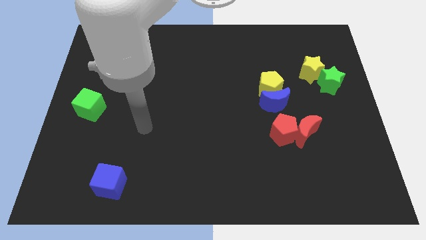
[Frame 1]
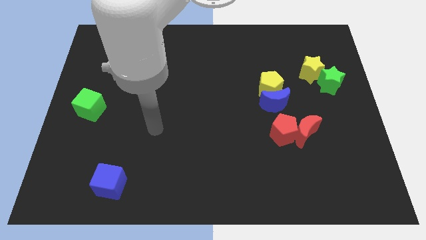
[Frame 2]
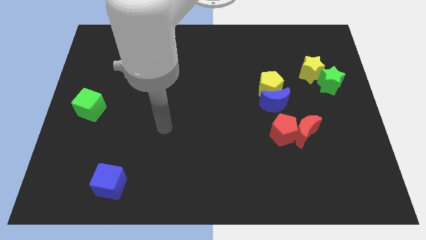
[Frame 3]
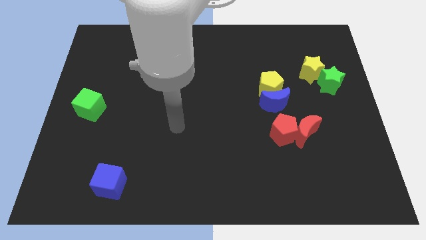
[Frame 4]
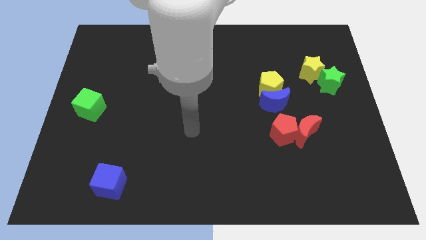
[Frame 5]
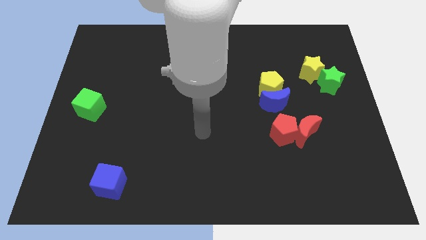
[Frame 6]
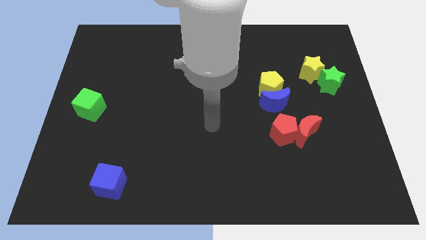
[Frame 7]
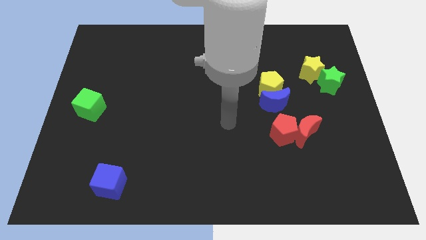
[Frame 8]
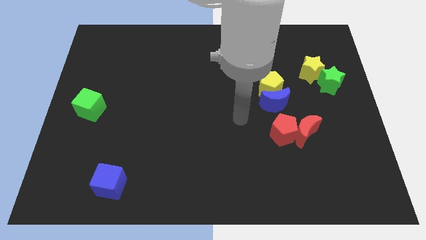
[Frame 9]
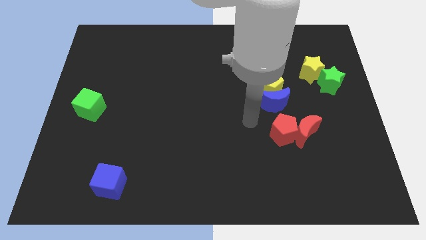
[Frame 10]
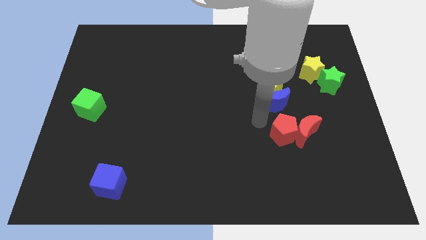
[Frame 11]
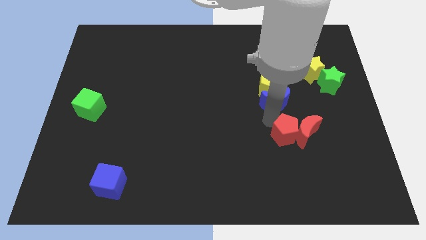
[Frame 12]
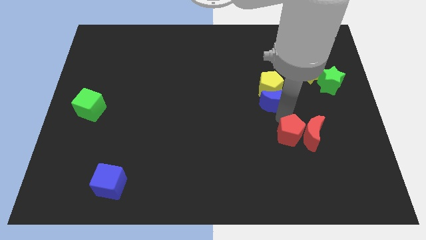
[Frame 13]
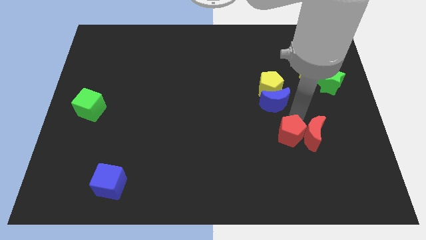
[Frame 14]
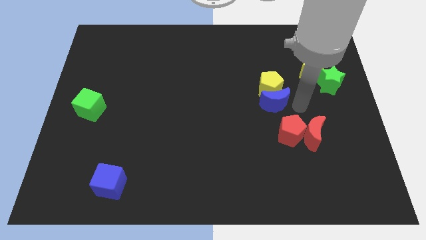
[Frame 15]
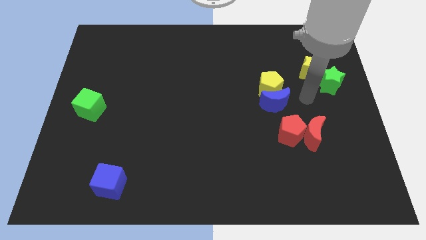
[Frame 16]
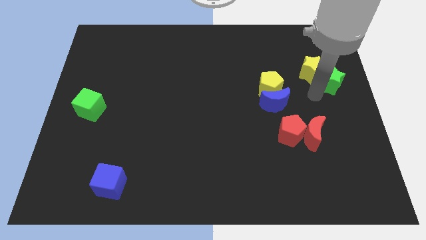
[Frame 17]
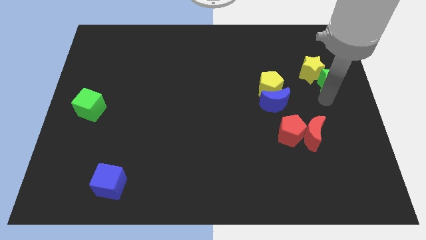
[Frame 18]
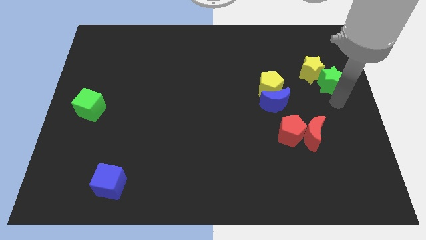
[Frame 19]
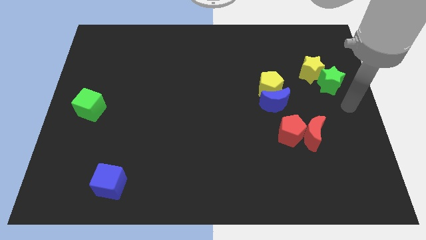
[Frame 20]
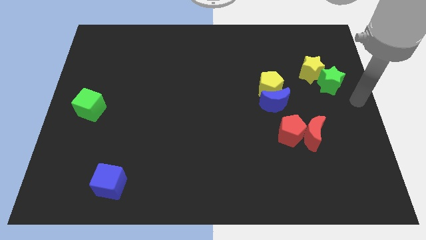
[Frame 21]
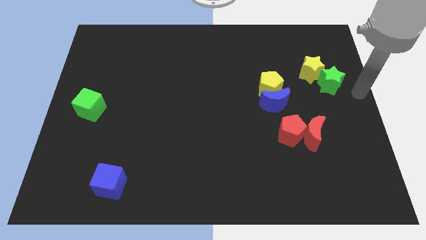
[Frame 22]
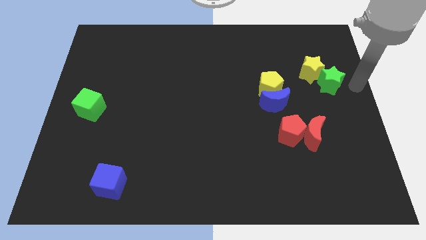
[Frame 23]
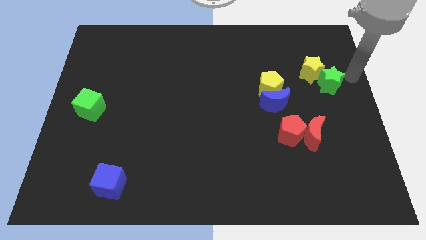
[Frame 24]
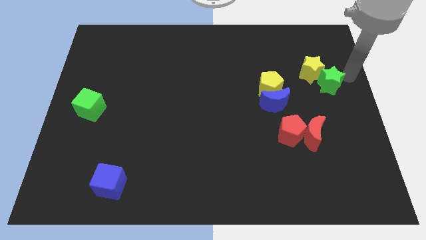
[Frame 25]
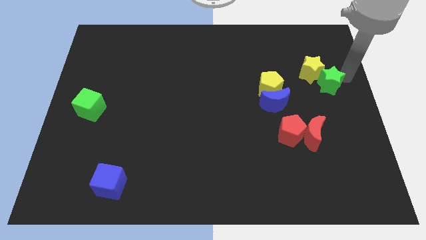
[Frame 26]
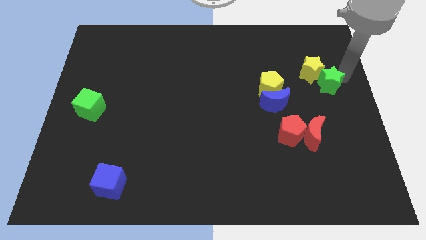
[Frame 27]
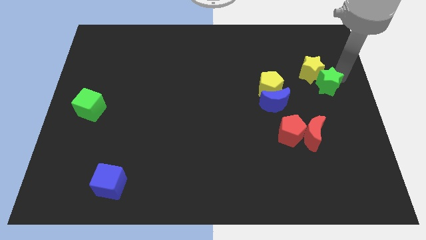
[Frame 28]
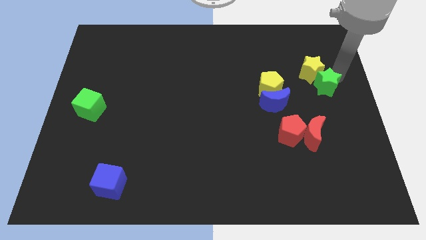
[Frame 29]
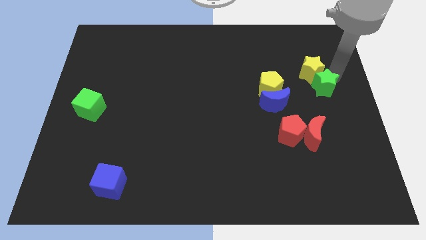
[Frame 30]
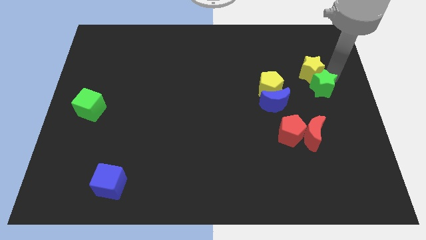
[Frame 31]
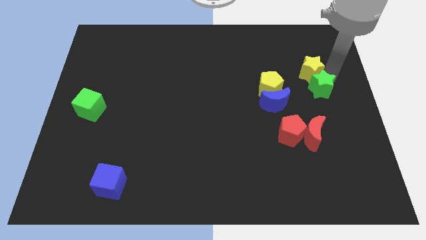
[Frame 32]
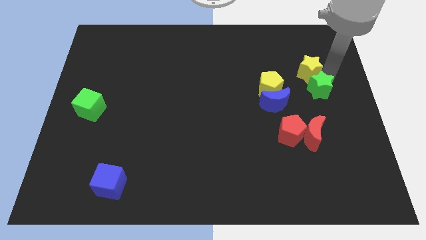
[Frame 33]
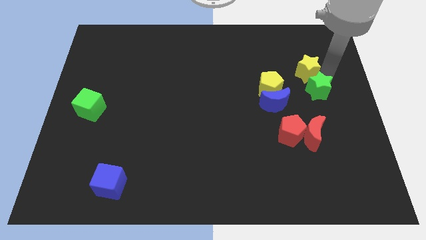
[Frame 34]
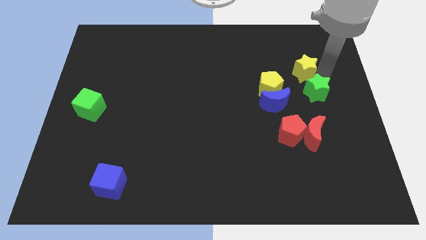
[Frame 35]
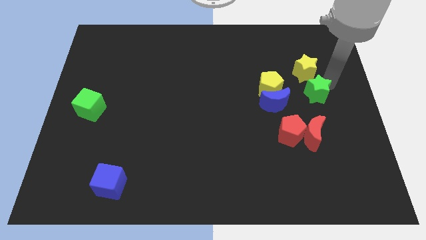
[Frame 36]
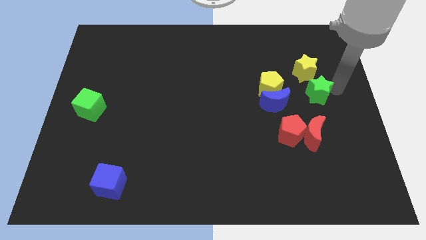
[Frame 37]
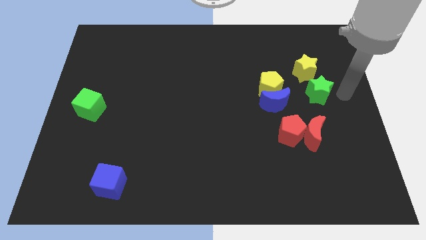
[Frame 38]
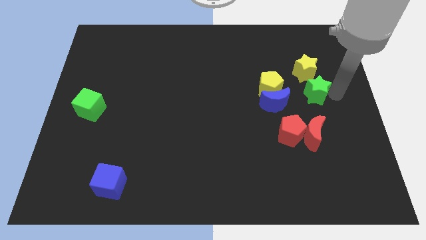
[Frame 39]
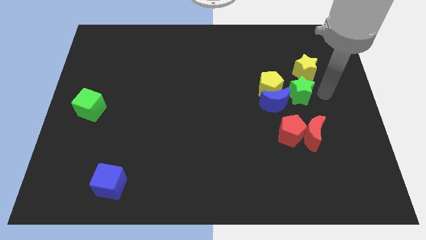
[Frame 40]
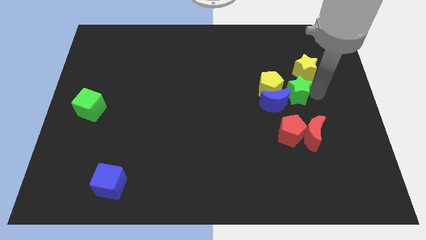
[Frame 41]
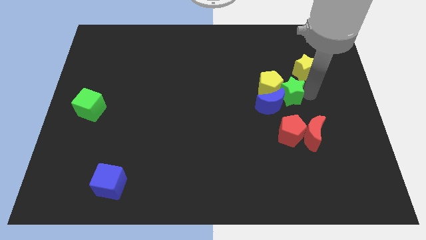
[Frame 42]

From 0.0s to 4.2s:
move the green star close to the yellow pentagon

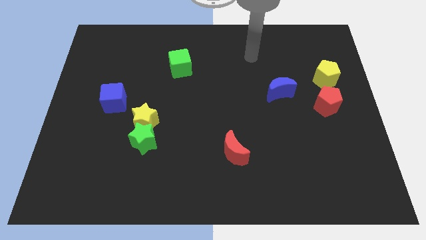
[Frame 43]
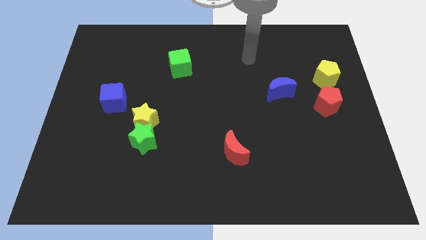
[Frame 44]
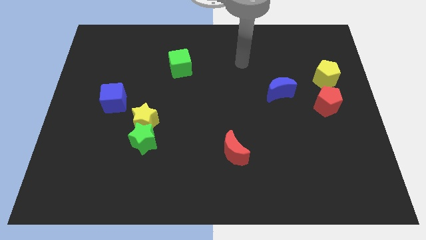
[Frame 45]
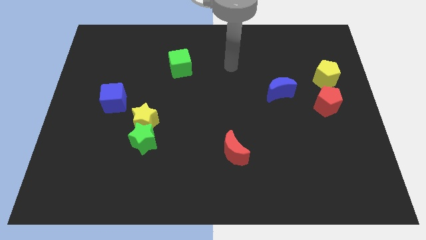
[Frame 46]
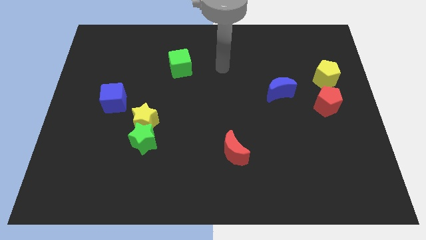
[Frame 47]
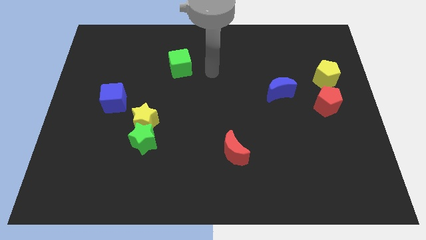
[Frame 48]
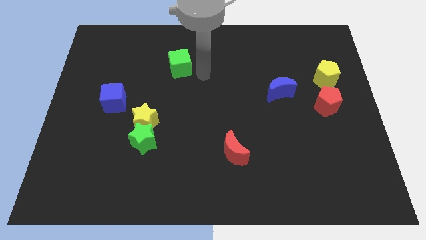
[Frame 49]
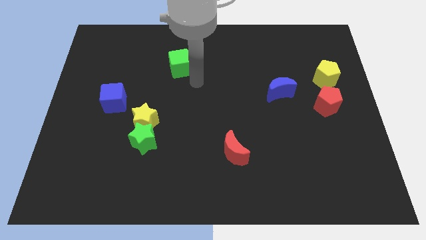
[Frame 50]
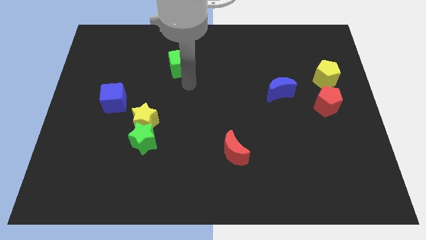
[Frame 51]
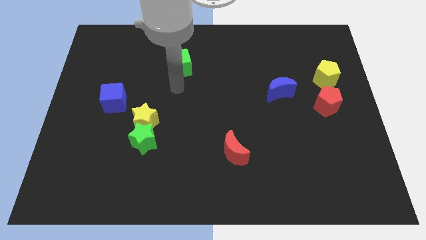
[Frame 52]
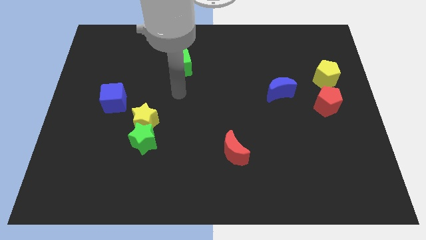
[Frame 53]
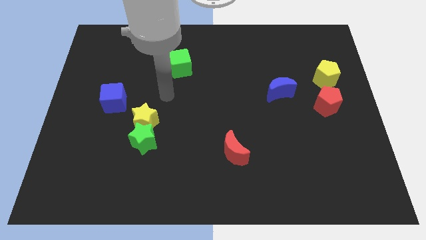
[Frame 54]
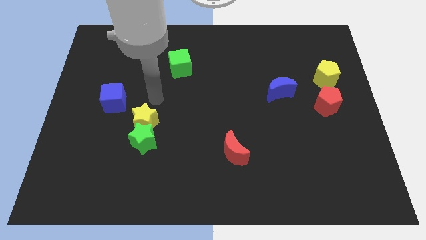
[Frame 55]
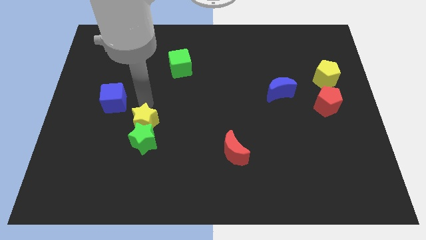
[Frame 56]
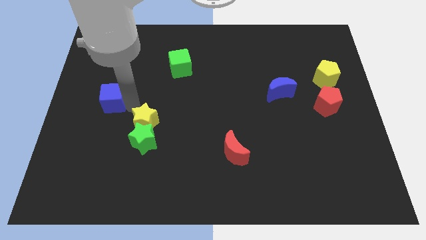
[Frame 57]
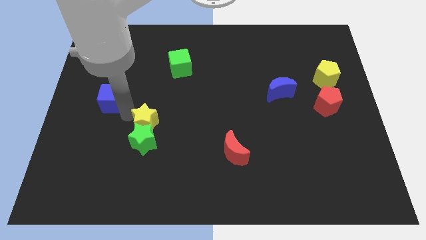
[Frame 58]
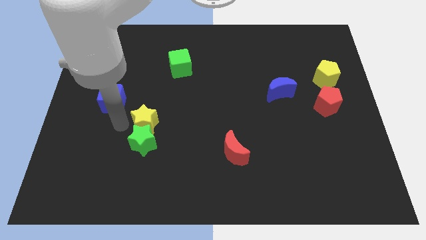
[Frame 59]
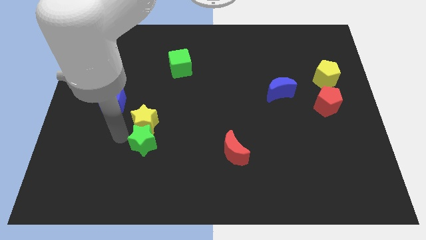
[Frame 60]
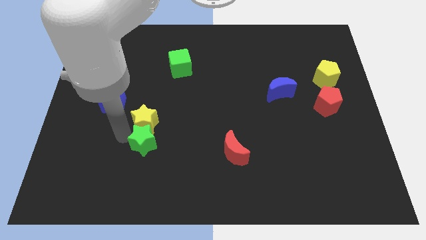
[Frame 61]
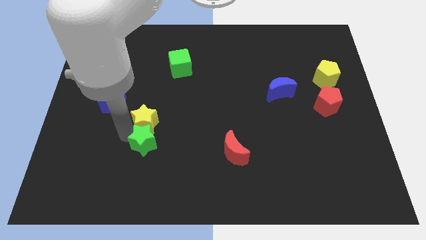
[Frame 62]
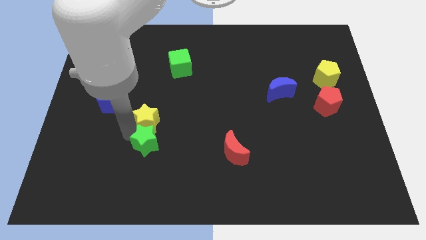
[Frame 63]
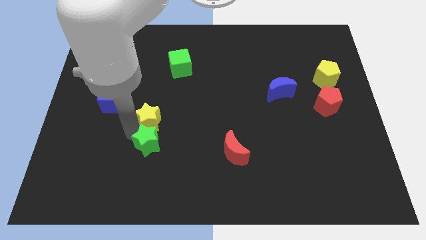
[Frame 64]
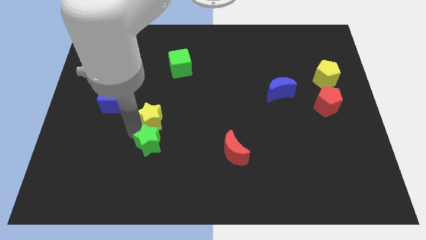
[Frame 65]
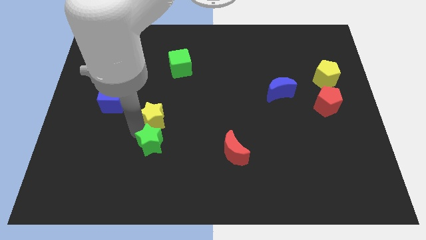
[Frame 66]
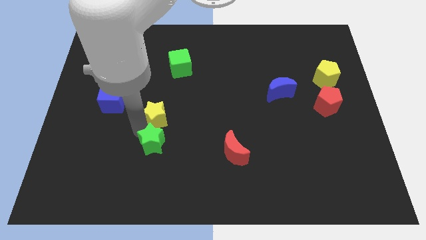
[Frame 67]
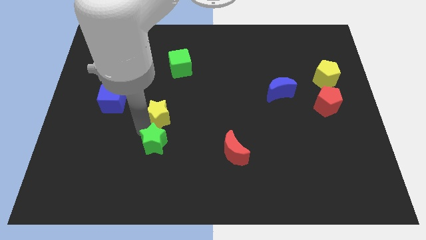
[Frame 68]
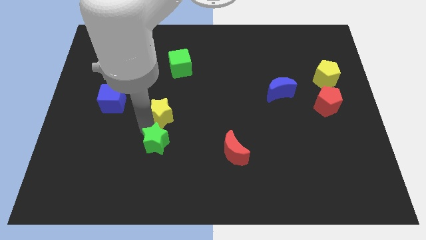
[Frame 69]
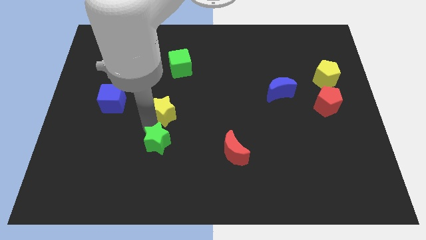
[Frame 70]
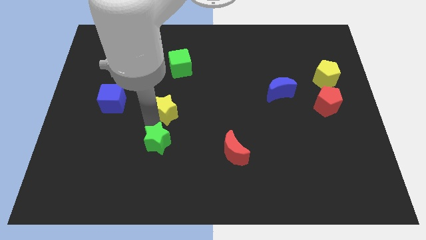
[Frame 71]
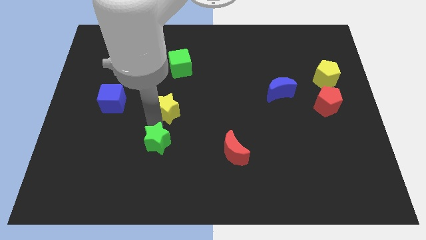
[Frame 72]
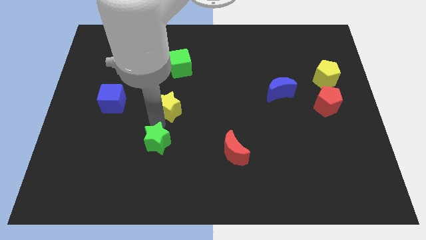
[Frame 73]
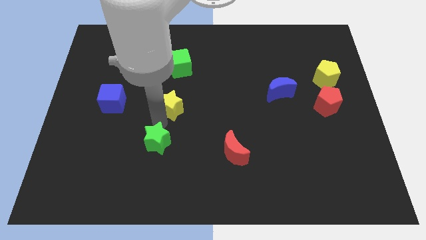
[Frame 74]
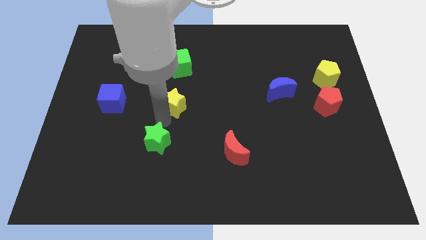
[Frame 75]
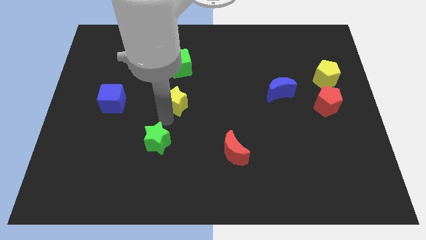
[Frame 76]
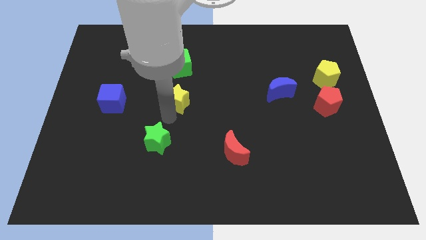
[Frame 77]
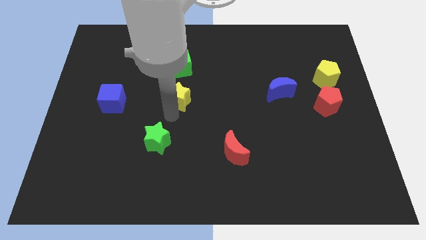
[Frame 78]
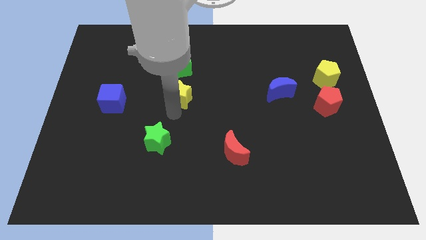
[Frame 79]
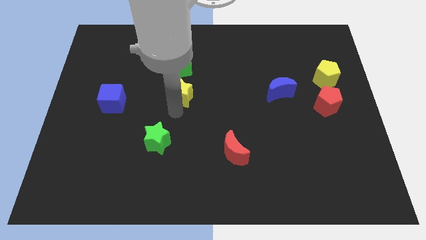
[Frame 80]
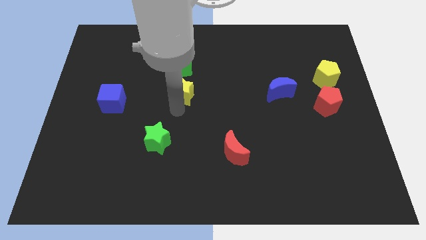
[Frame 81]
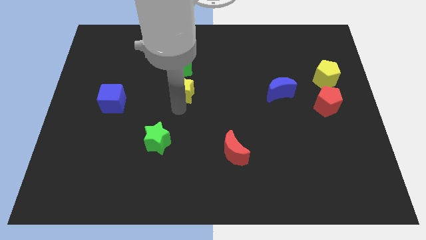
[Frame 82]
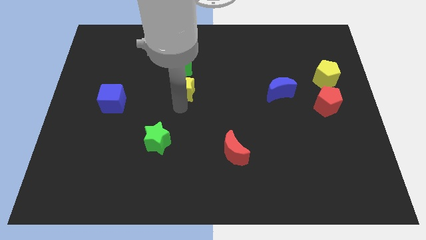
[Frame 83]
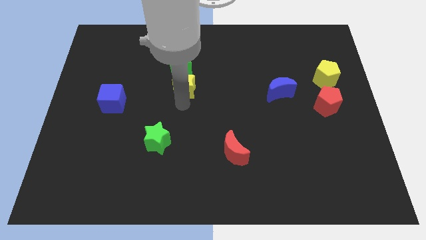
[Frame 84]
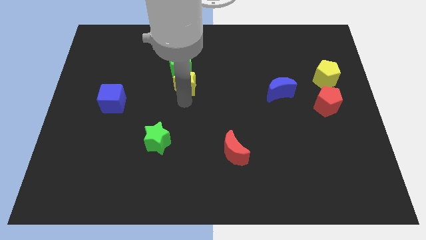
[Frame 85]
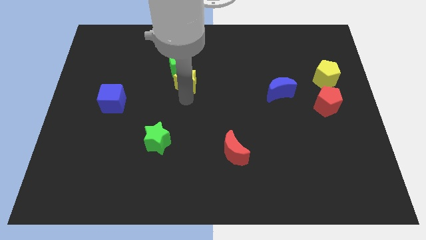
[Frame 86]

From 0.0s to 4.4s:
put the yellow star towards the green cube
